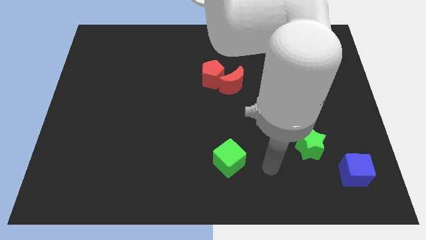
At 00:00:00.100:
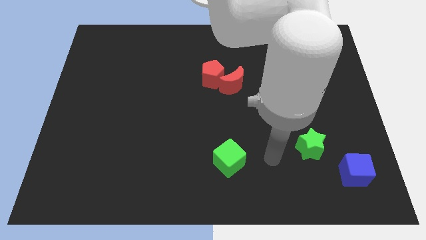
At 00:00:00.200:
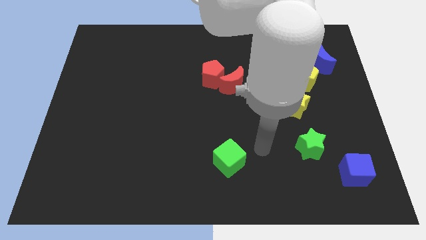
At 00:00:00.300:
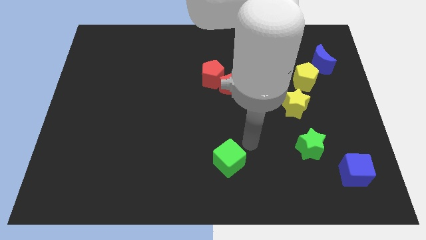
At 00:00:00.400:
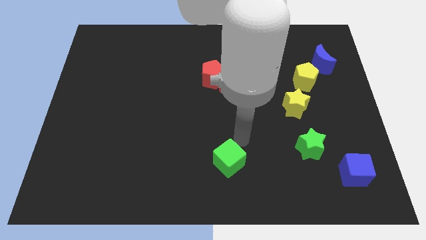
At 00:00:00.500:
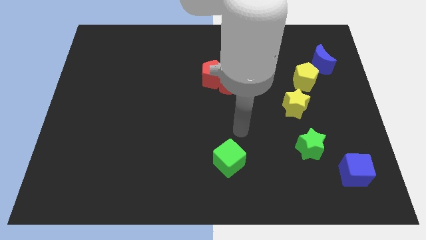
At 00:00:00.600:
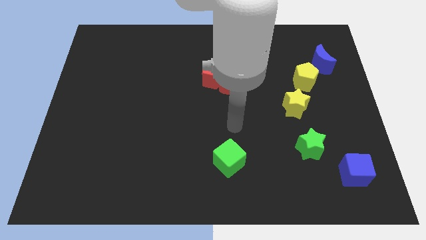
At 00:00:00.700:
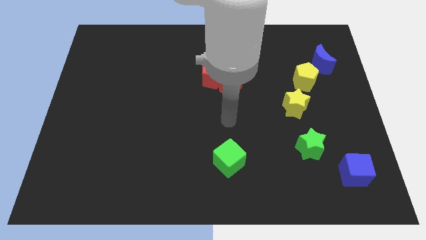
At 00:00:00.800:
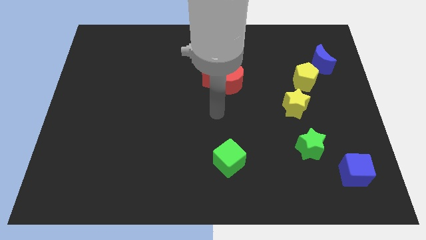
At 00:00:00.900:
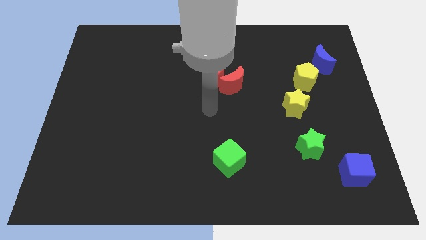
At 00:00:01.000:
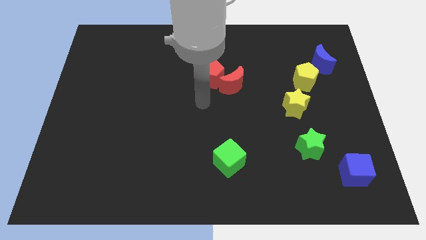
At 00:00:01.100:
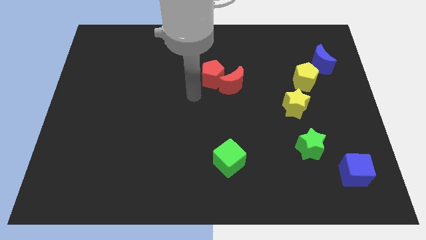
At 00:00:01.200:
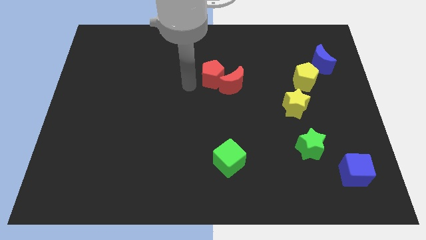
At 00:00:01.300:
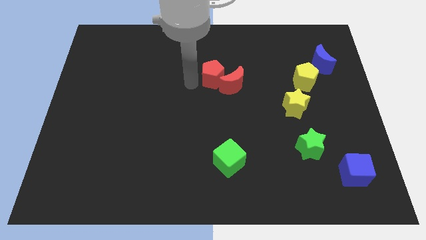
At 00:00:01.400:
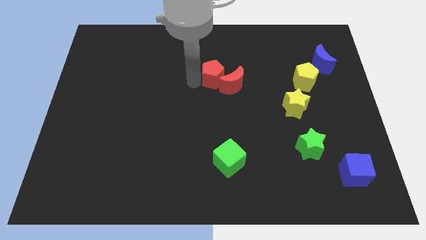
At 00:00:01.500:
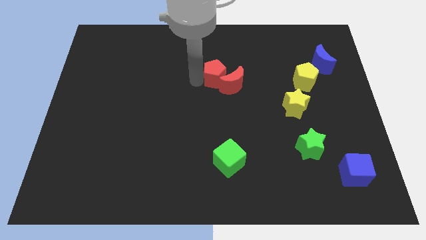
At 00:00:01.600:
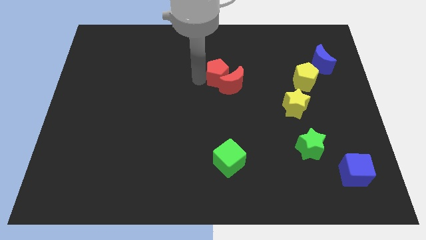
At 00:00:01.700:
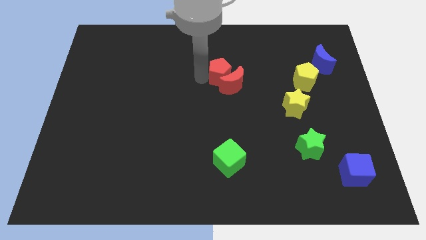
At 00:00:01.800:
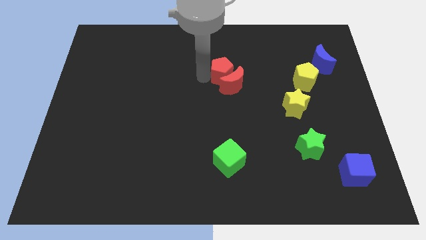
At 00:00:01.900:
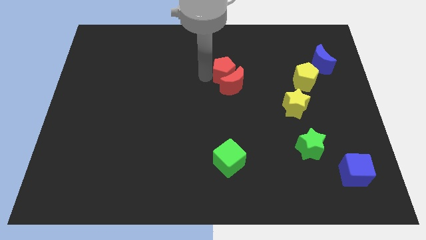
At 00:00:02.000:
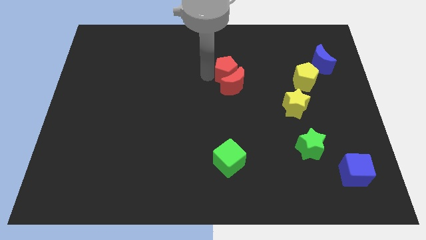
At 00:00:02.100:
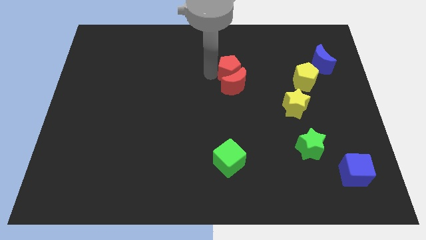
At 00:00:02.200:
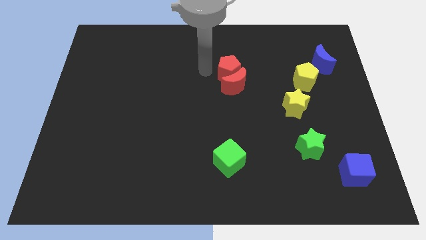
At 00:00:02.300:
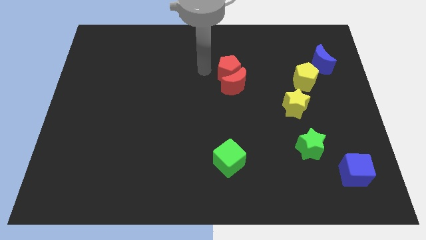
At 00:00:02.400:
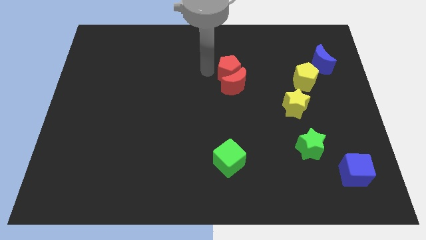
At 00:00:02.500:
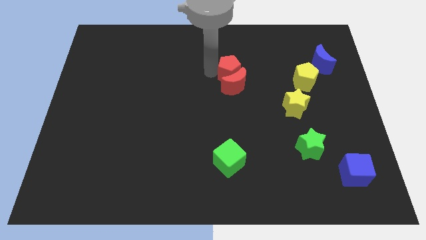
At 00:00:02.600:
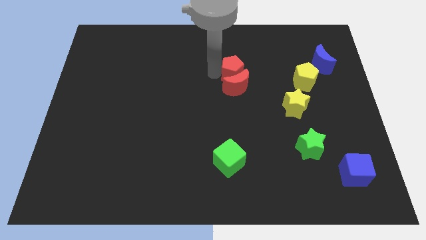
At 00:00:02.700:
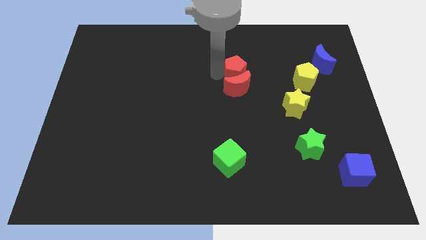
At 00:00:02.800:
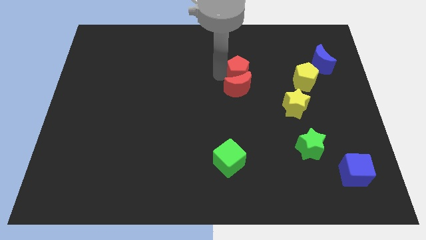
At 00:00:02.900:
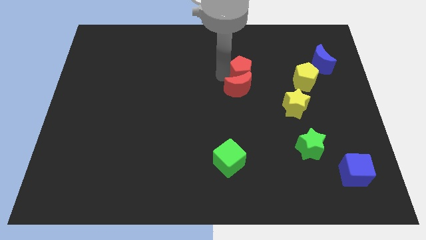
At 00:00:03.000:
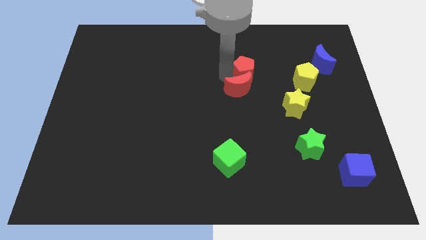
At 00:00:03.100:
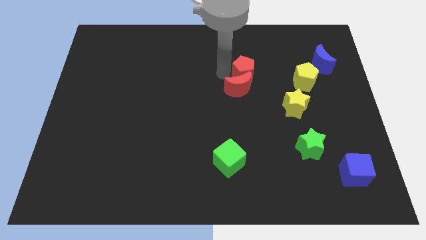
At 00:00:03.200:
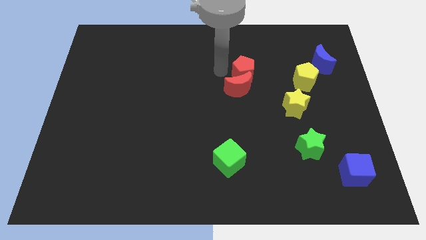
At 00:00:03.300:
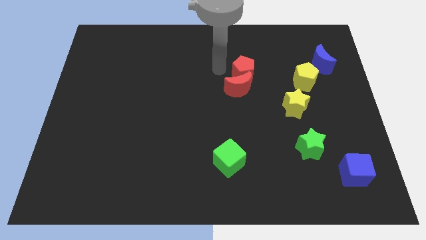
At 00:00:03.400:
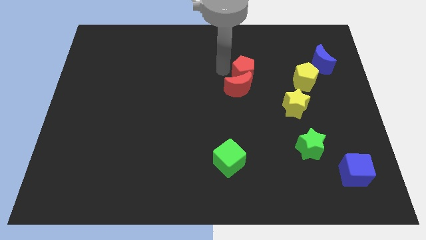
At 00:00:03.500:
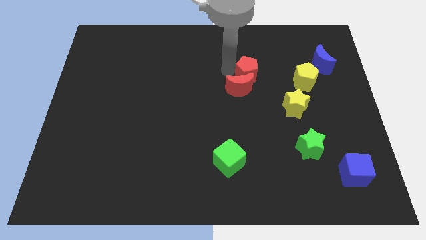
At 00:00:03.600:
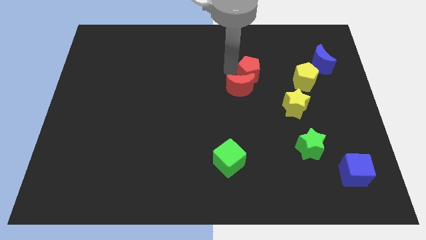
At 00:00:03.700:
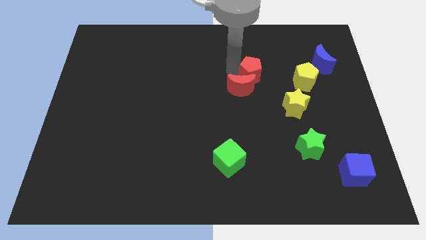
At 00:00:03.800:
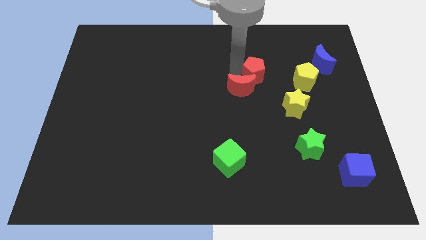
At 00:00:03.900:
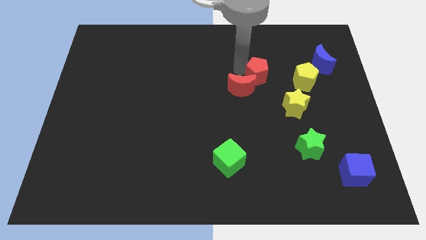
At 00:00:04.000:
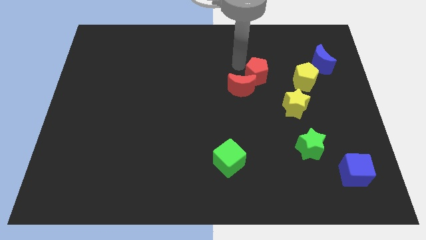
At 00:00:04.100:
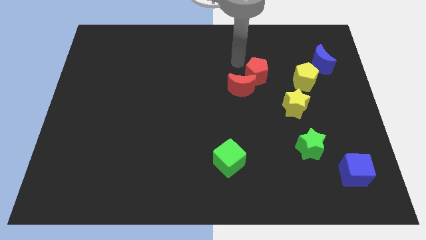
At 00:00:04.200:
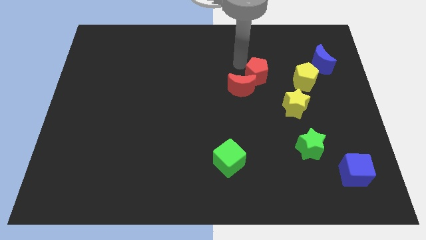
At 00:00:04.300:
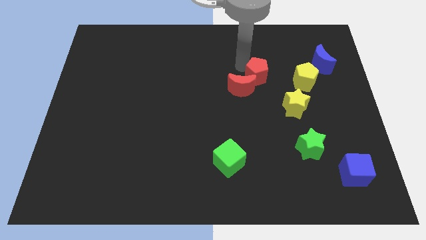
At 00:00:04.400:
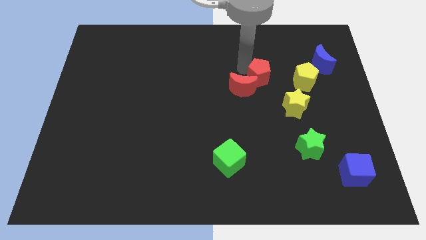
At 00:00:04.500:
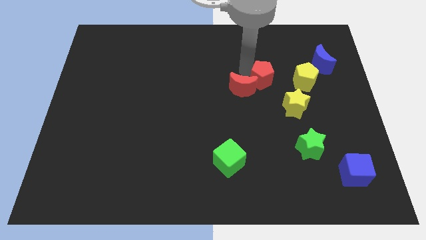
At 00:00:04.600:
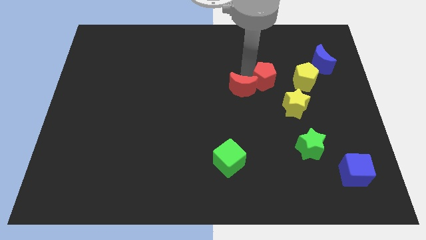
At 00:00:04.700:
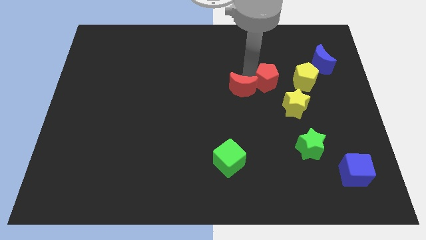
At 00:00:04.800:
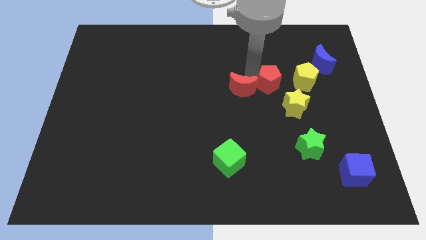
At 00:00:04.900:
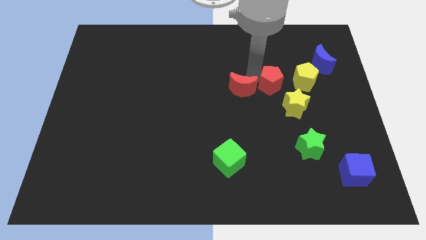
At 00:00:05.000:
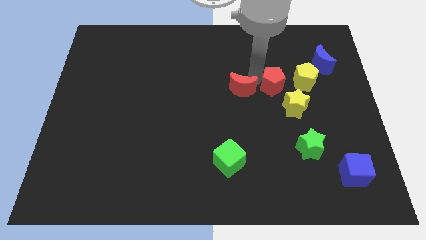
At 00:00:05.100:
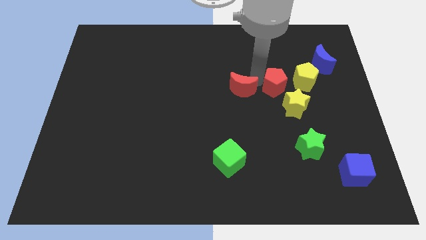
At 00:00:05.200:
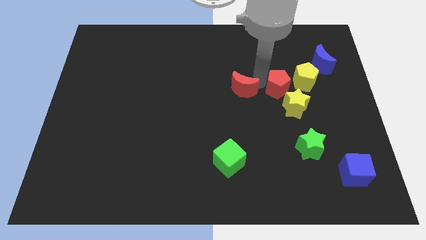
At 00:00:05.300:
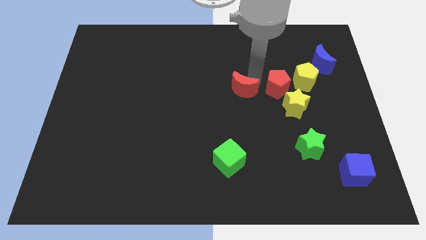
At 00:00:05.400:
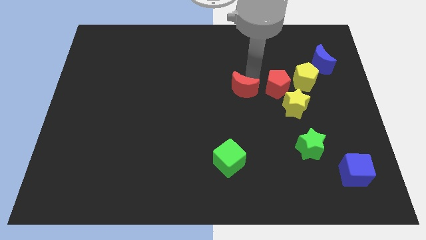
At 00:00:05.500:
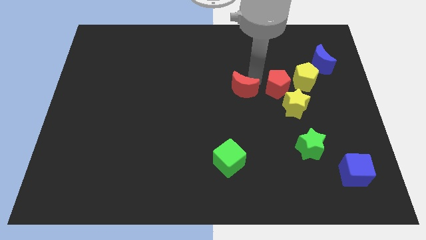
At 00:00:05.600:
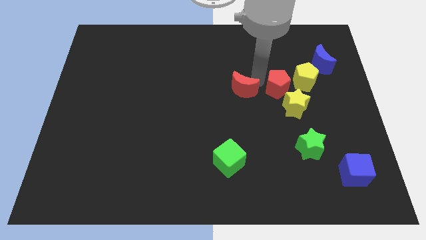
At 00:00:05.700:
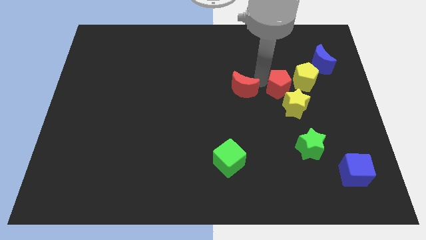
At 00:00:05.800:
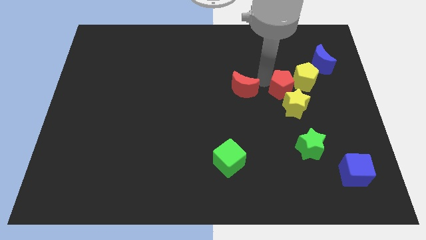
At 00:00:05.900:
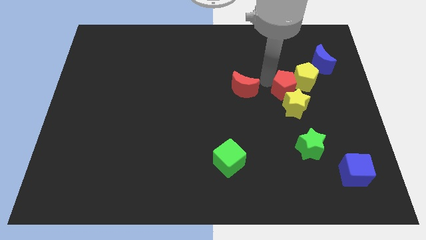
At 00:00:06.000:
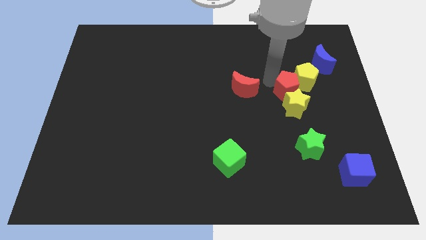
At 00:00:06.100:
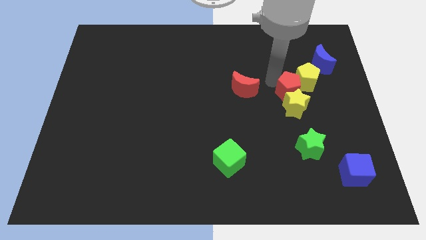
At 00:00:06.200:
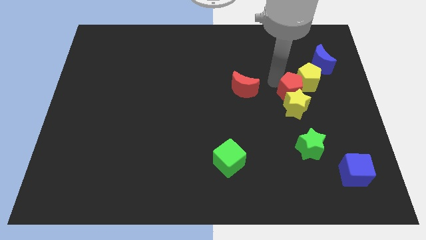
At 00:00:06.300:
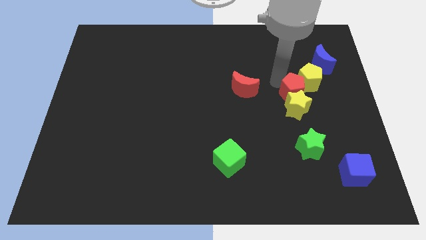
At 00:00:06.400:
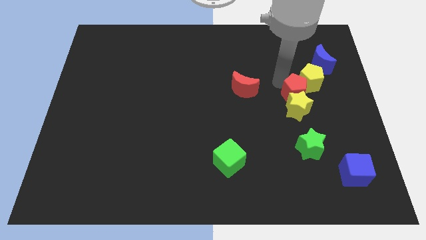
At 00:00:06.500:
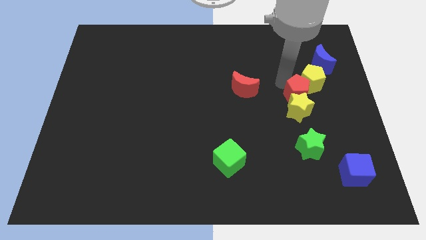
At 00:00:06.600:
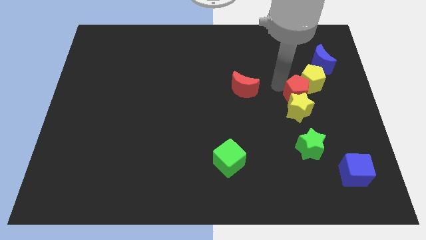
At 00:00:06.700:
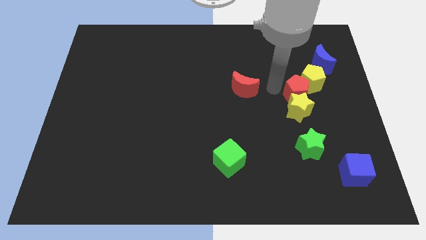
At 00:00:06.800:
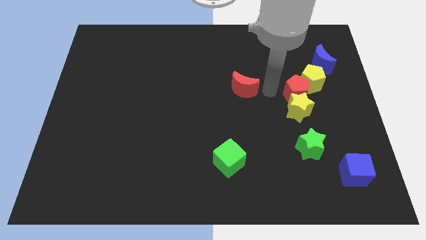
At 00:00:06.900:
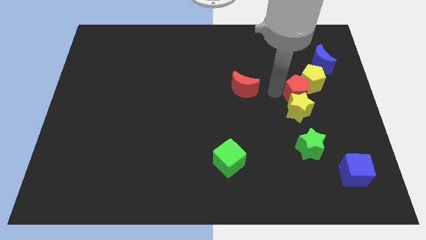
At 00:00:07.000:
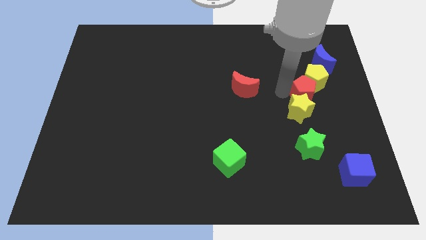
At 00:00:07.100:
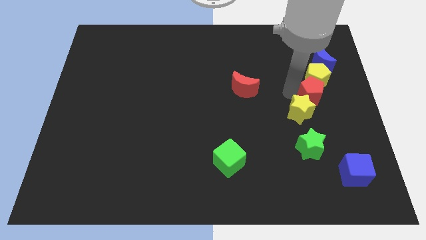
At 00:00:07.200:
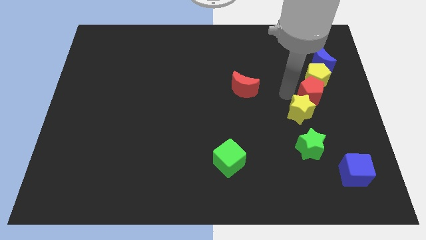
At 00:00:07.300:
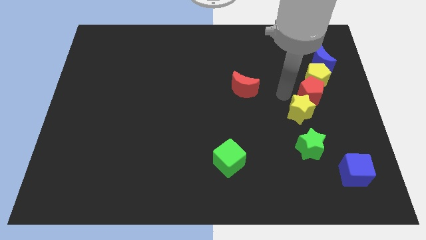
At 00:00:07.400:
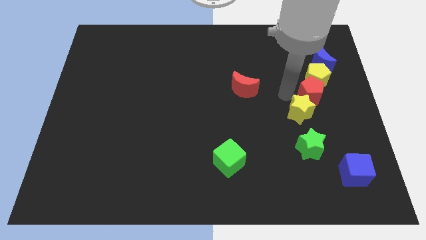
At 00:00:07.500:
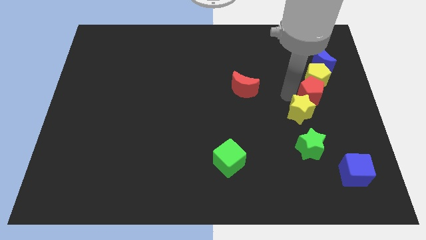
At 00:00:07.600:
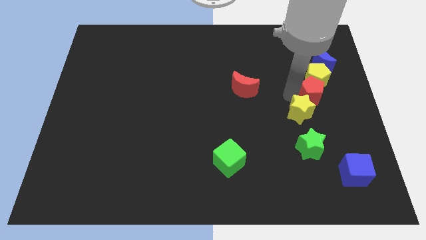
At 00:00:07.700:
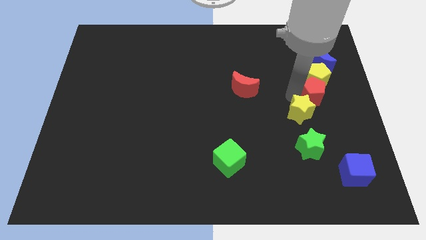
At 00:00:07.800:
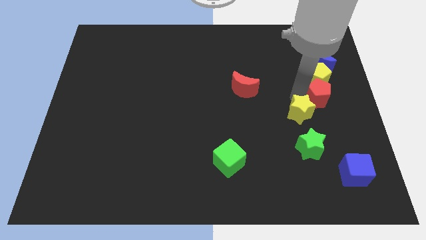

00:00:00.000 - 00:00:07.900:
move the red pentagon to the right side of the board
